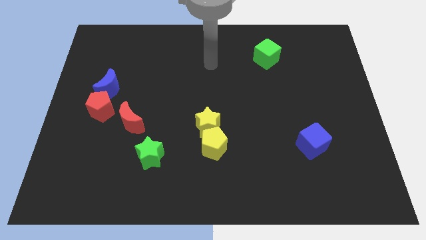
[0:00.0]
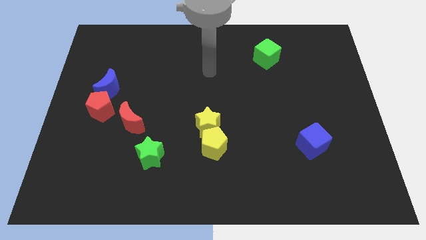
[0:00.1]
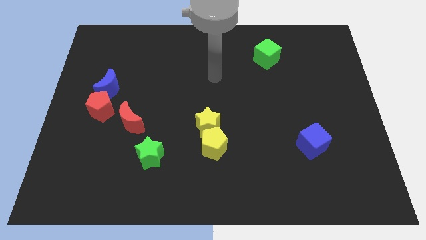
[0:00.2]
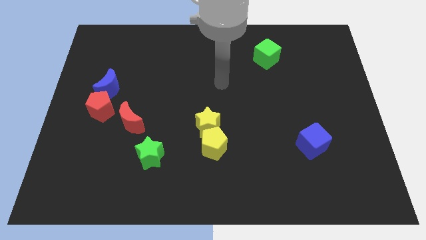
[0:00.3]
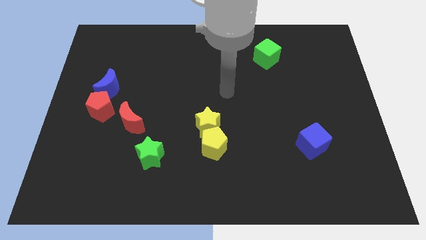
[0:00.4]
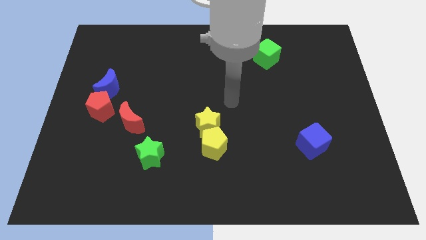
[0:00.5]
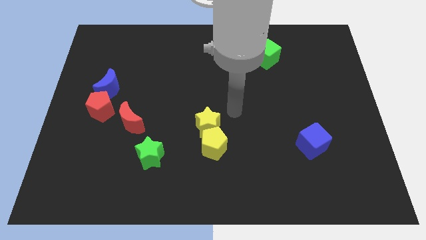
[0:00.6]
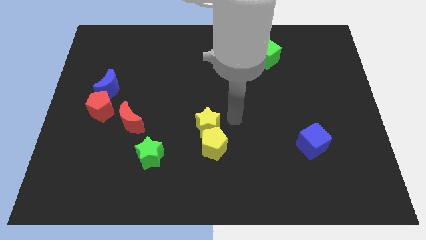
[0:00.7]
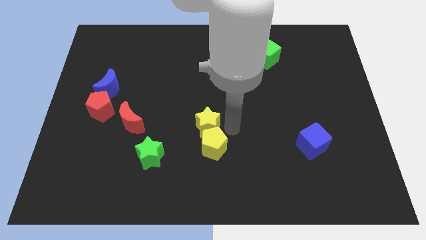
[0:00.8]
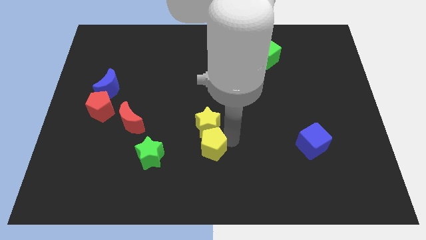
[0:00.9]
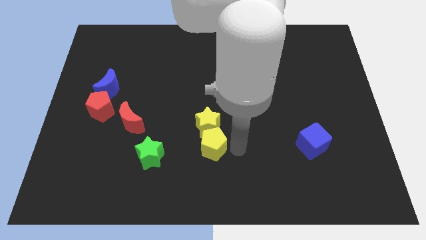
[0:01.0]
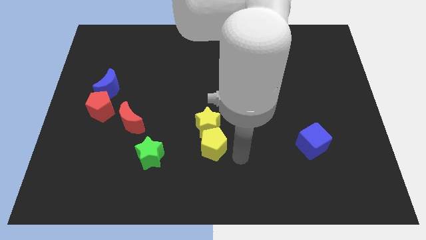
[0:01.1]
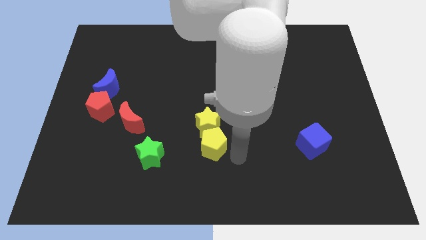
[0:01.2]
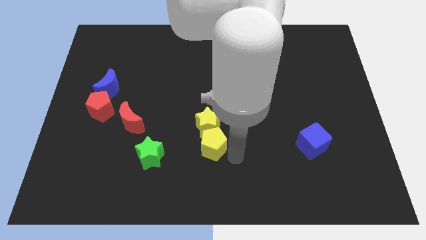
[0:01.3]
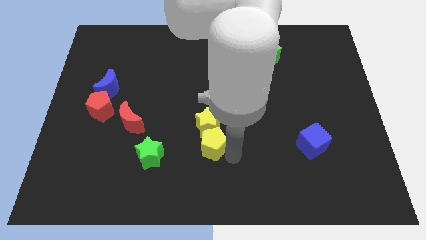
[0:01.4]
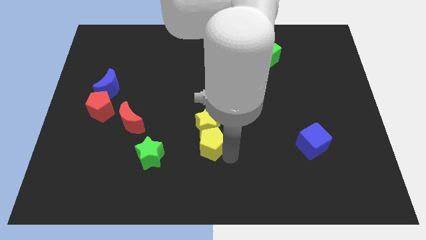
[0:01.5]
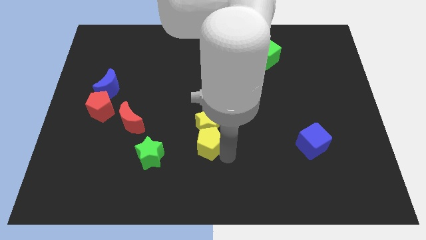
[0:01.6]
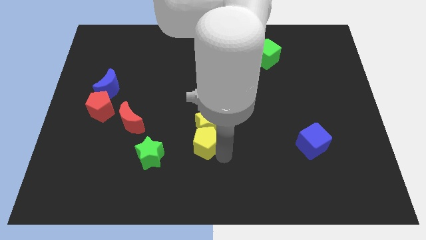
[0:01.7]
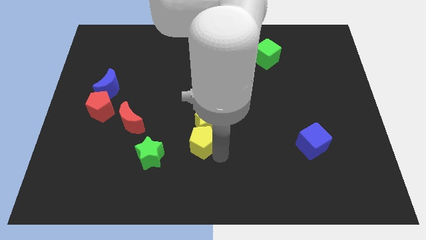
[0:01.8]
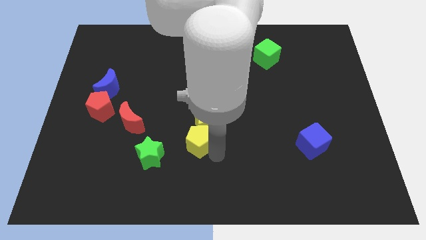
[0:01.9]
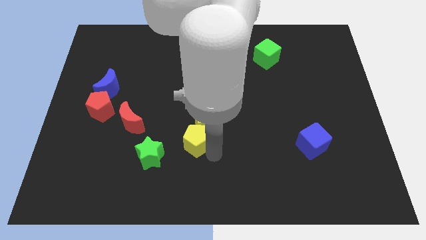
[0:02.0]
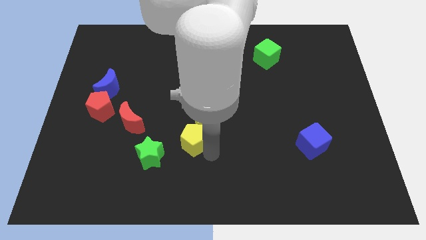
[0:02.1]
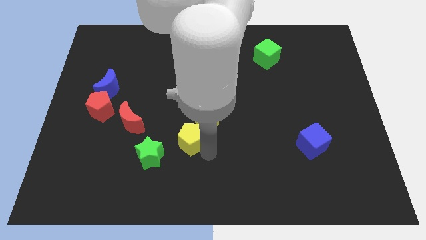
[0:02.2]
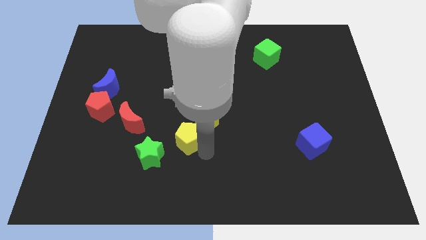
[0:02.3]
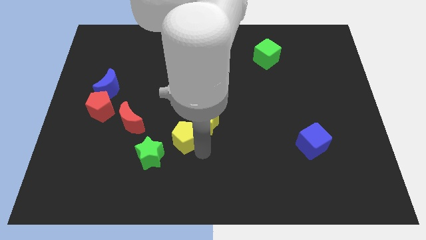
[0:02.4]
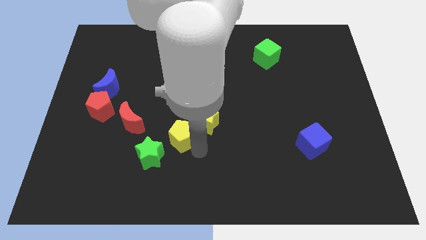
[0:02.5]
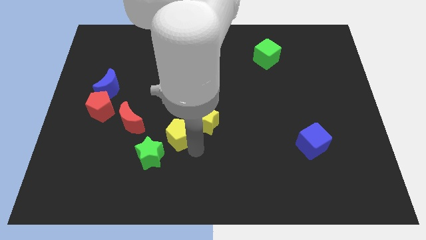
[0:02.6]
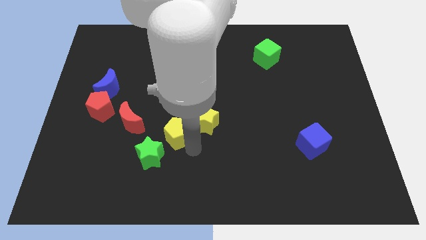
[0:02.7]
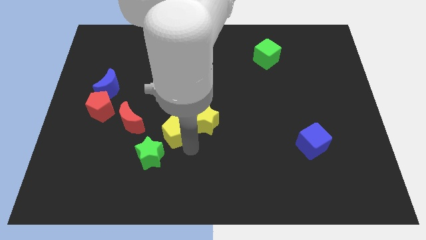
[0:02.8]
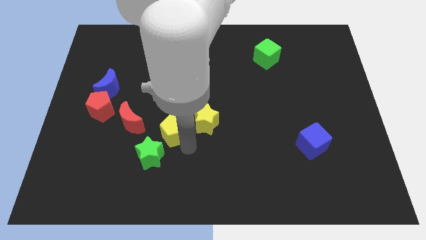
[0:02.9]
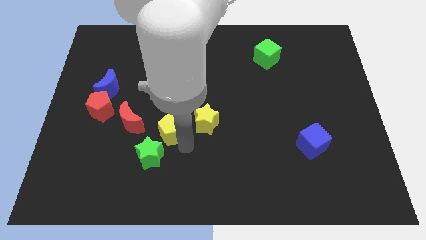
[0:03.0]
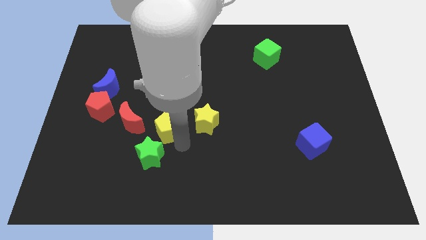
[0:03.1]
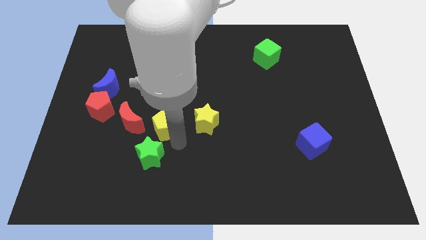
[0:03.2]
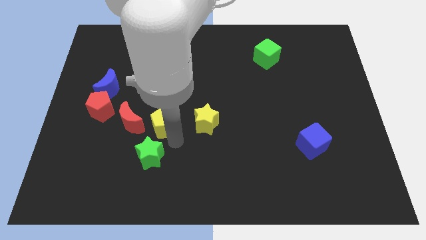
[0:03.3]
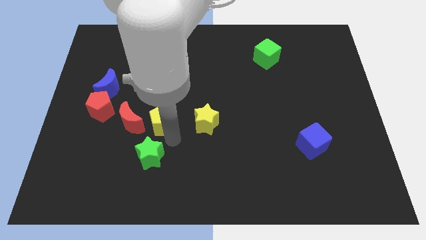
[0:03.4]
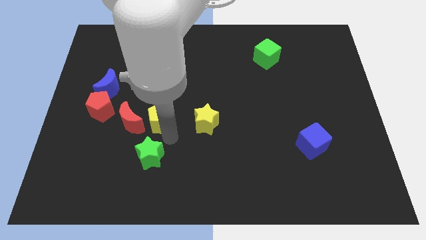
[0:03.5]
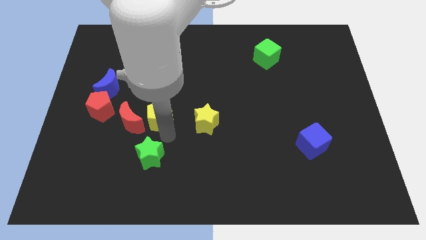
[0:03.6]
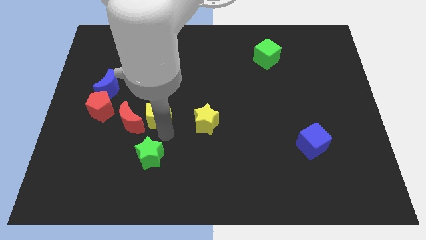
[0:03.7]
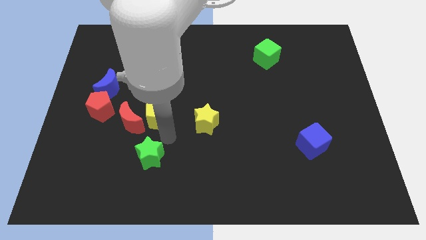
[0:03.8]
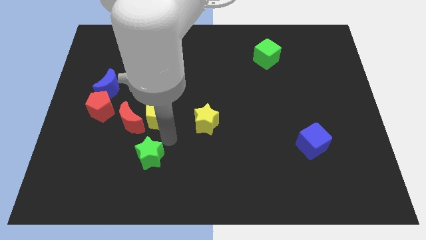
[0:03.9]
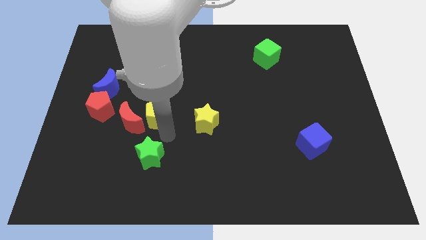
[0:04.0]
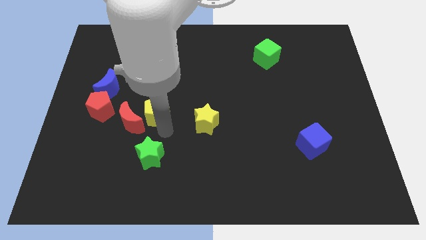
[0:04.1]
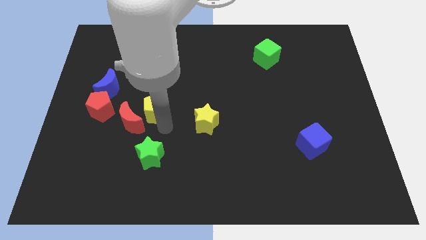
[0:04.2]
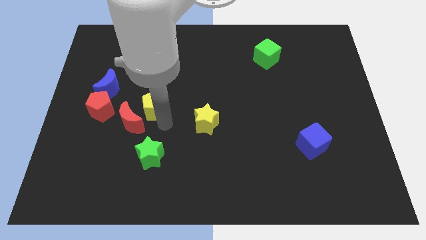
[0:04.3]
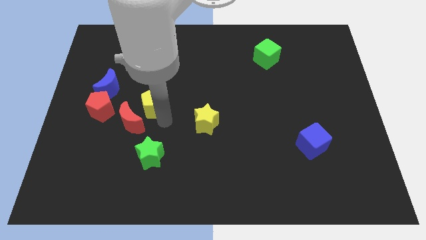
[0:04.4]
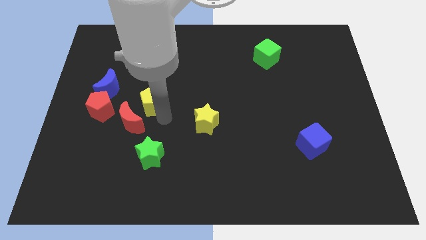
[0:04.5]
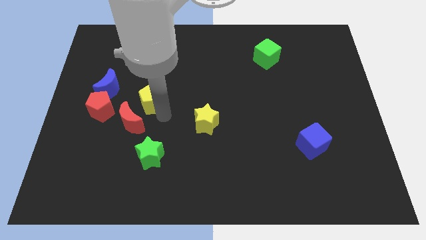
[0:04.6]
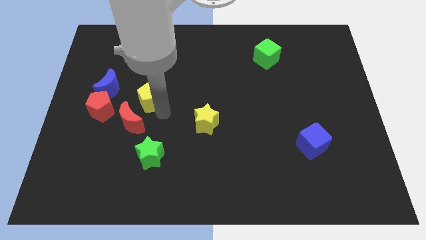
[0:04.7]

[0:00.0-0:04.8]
slide the yellow pentagon diagonally upwards and to the left

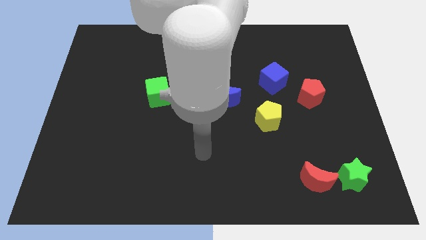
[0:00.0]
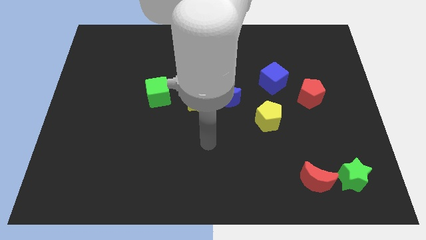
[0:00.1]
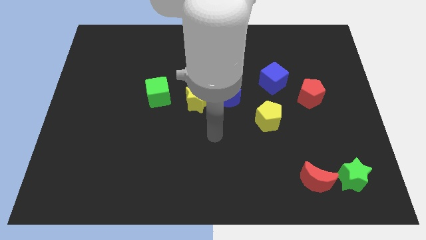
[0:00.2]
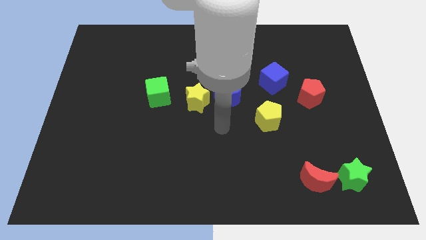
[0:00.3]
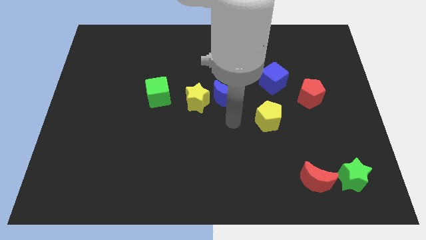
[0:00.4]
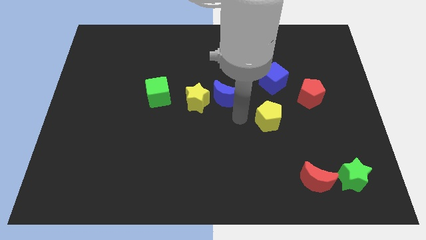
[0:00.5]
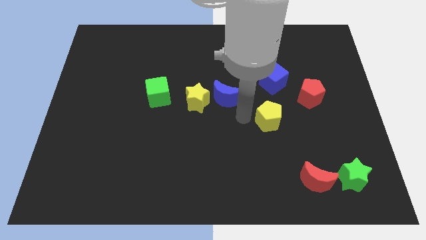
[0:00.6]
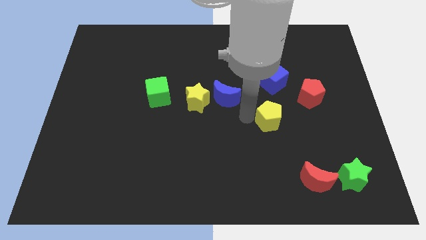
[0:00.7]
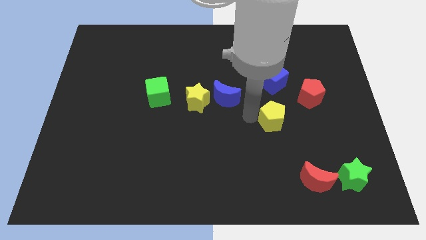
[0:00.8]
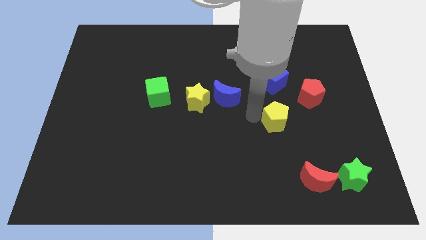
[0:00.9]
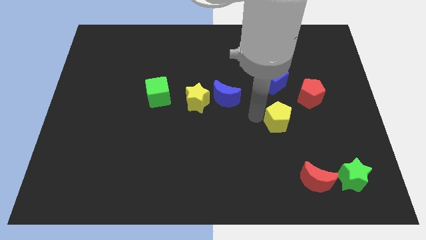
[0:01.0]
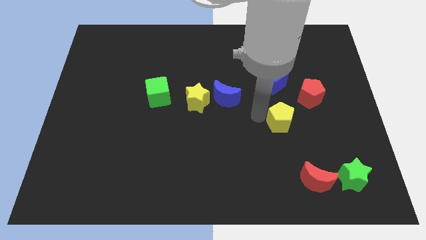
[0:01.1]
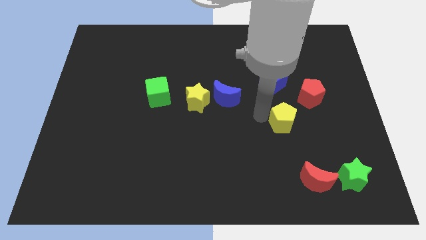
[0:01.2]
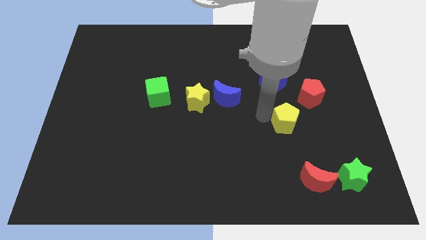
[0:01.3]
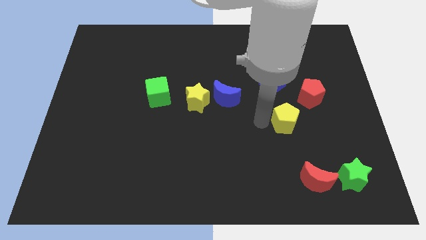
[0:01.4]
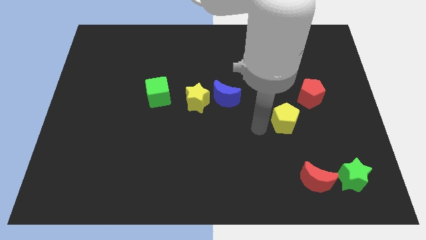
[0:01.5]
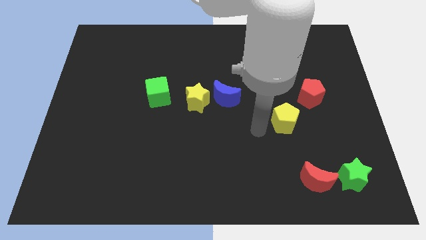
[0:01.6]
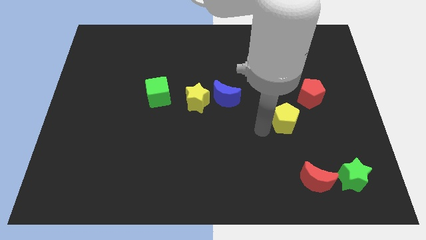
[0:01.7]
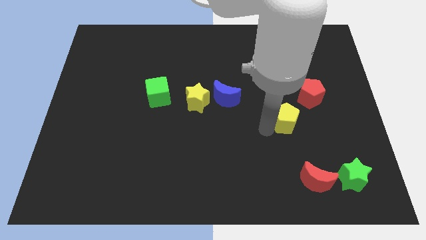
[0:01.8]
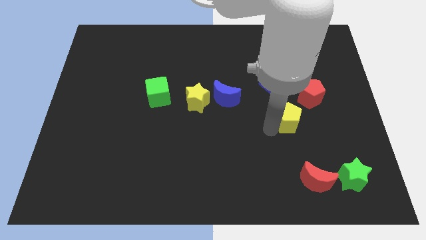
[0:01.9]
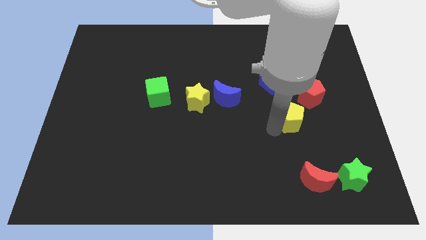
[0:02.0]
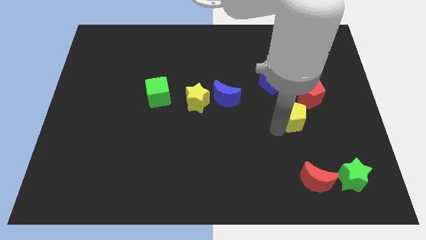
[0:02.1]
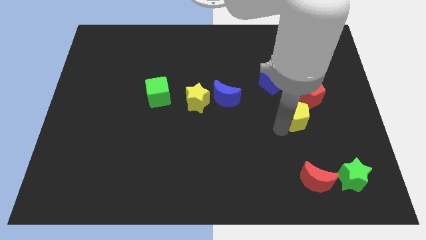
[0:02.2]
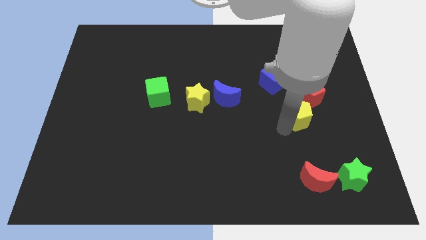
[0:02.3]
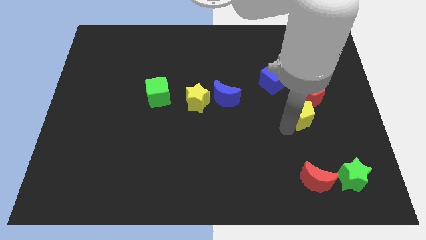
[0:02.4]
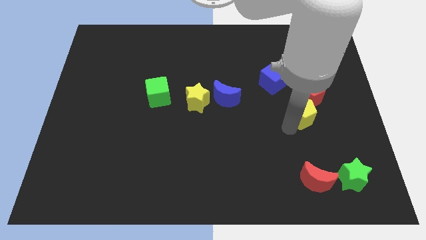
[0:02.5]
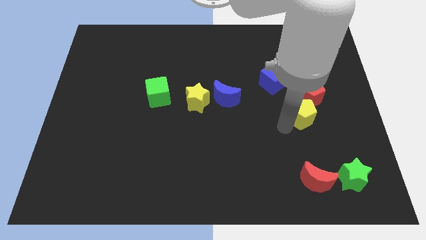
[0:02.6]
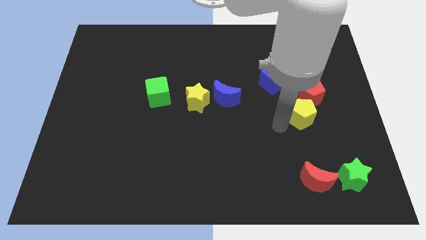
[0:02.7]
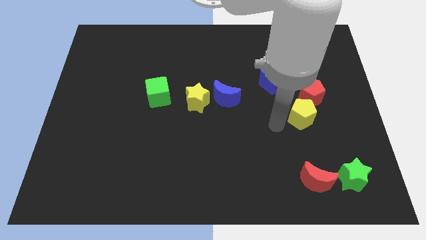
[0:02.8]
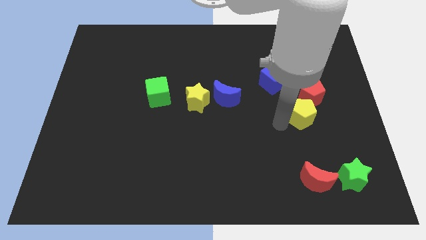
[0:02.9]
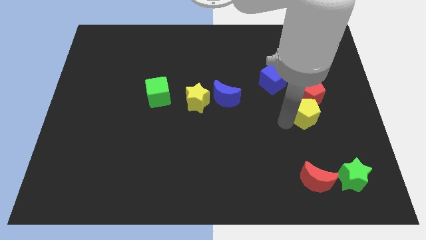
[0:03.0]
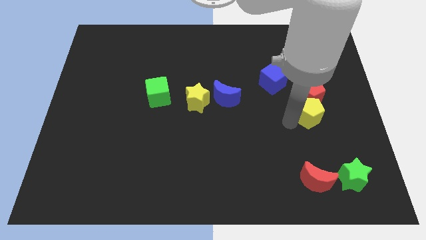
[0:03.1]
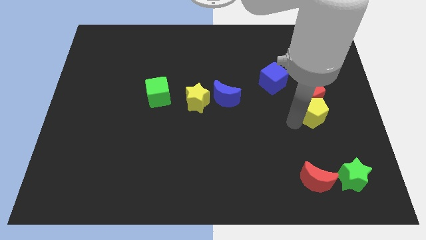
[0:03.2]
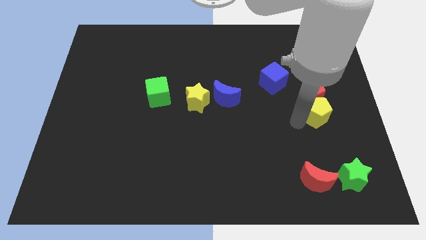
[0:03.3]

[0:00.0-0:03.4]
push the yellow pentagon a bit diagonally up and right

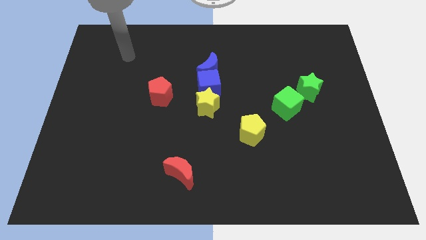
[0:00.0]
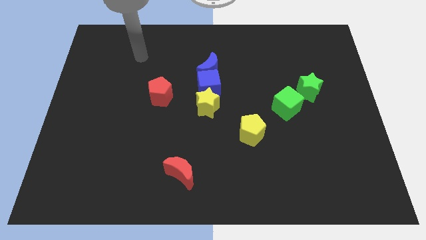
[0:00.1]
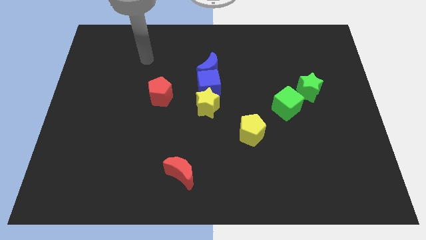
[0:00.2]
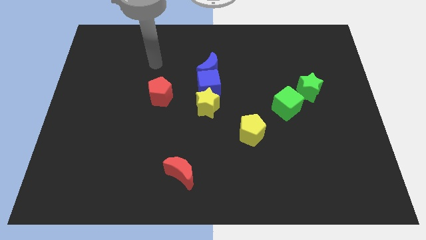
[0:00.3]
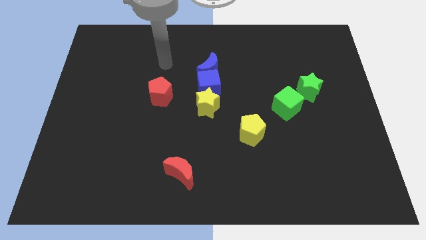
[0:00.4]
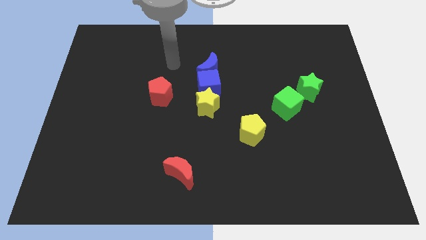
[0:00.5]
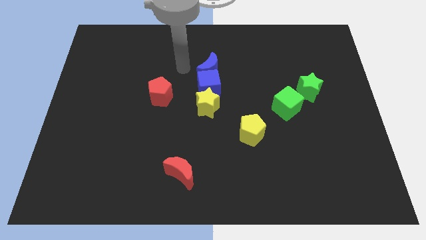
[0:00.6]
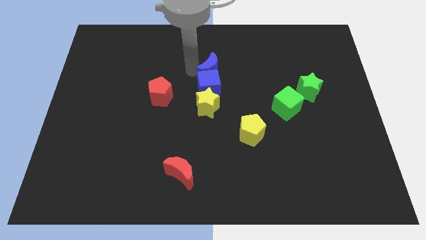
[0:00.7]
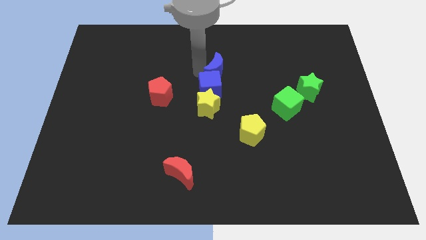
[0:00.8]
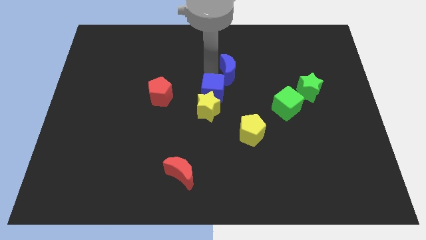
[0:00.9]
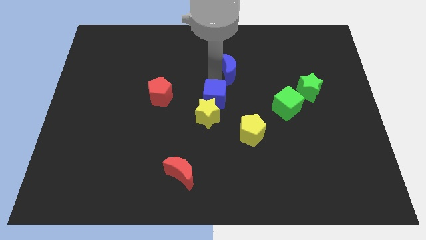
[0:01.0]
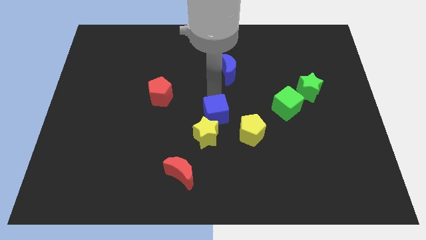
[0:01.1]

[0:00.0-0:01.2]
move the yellow star a little bit down
